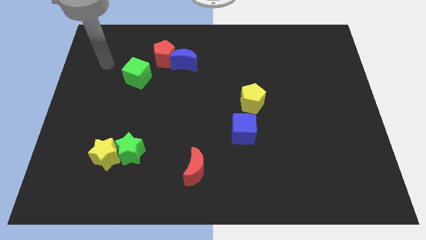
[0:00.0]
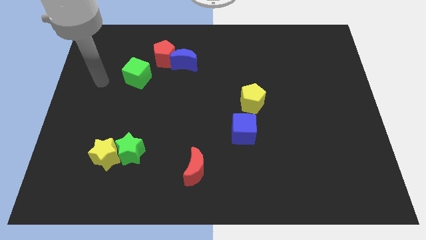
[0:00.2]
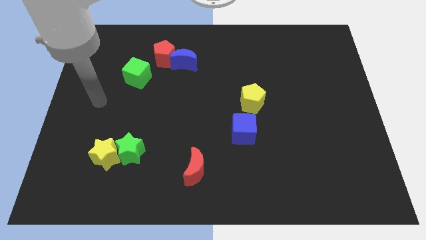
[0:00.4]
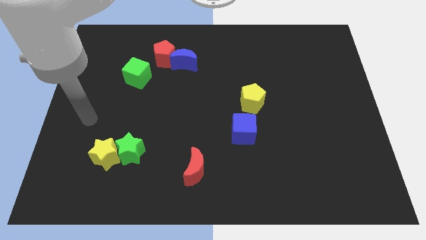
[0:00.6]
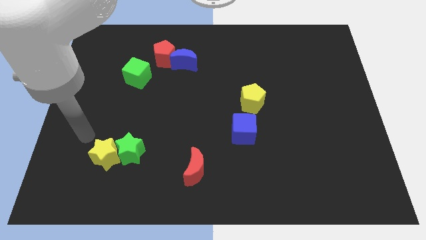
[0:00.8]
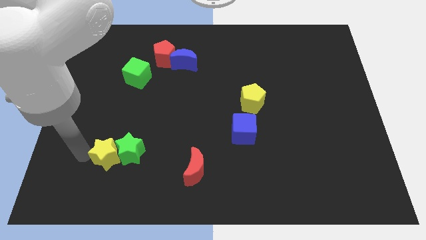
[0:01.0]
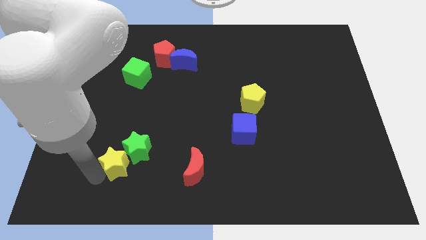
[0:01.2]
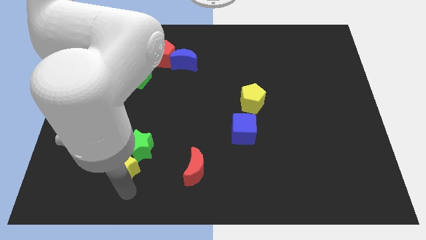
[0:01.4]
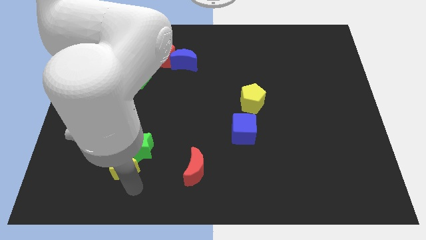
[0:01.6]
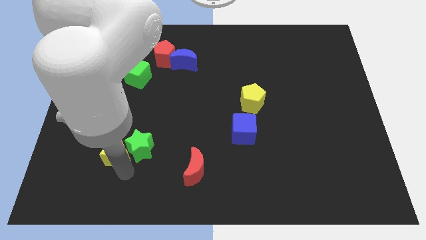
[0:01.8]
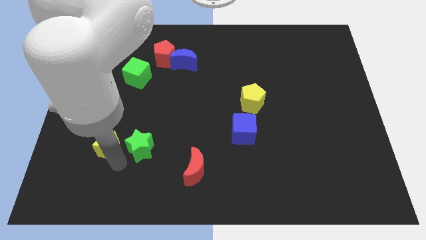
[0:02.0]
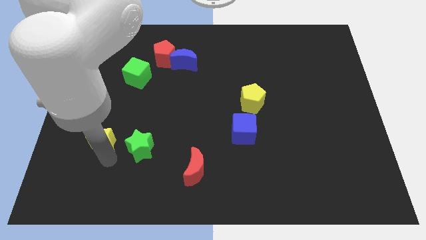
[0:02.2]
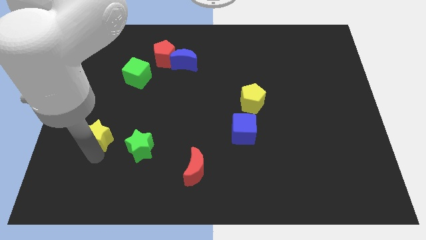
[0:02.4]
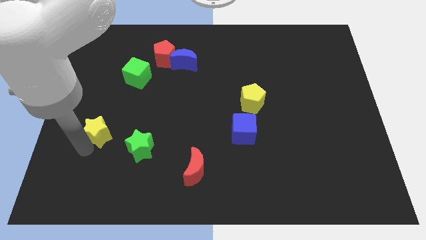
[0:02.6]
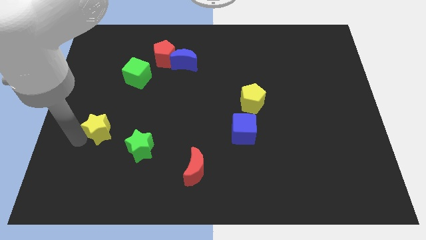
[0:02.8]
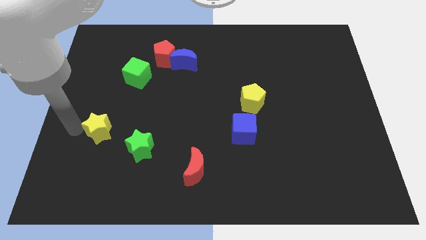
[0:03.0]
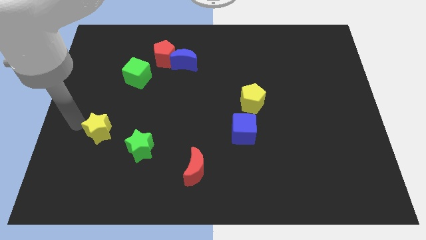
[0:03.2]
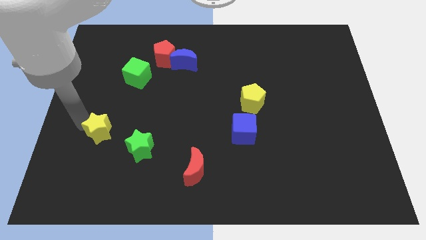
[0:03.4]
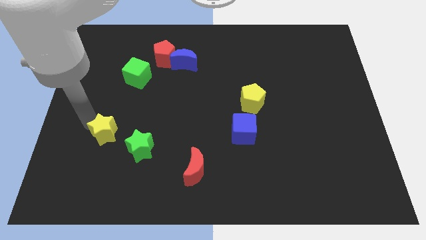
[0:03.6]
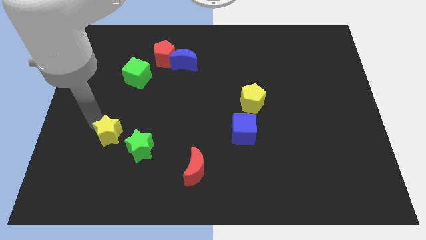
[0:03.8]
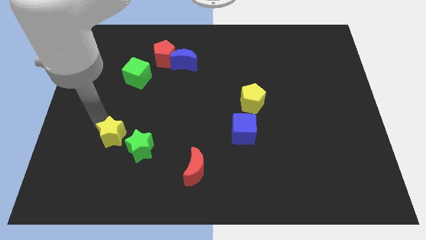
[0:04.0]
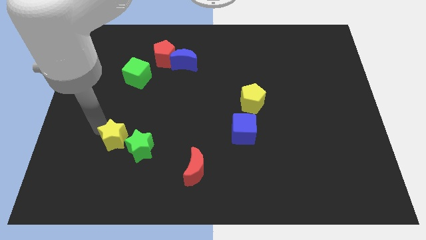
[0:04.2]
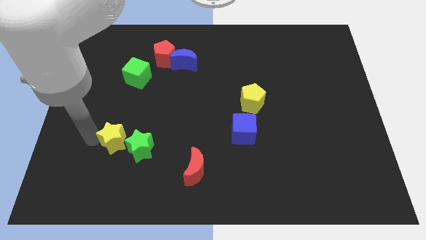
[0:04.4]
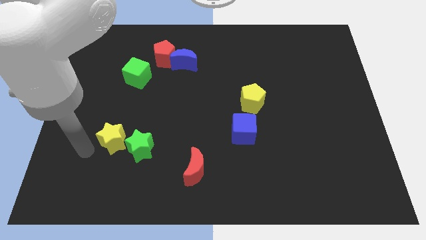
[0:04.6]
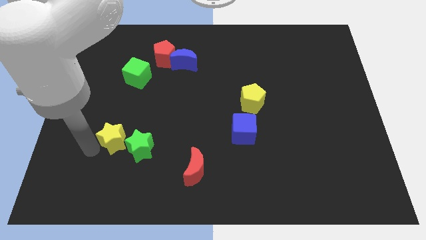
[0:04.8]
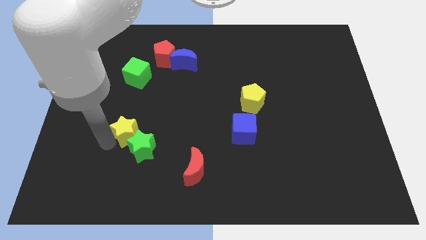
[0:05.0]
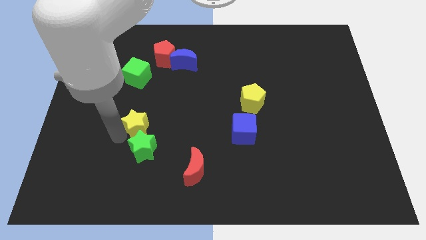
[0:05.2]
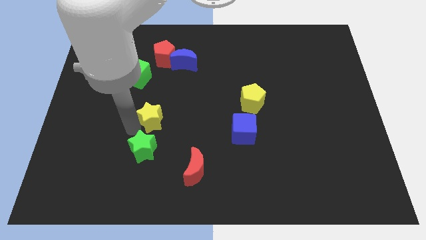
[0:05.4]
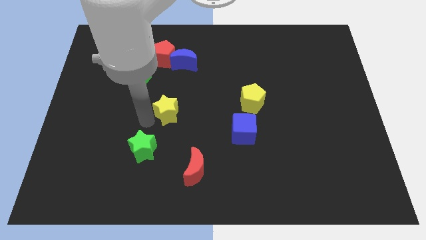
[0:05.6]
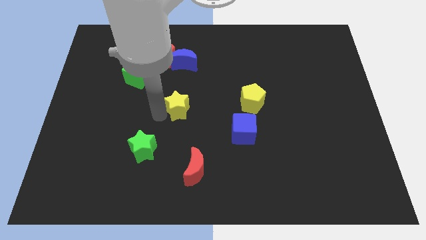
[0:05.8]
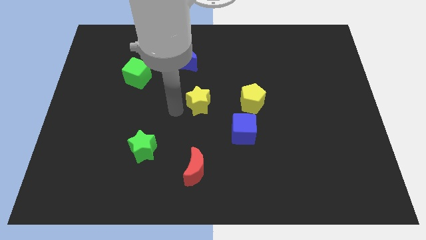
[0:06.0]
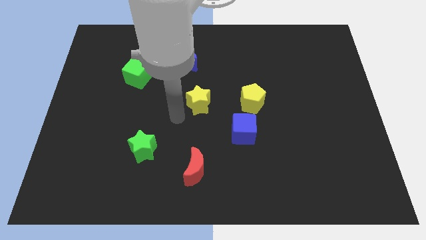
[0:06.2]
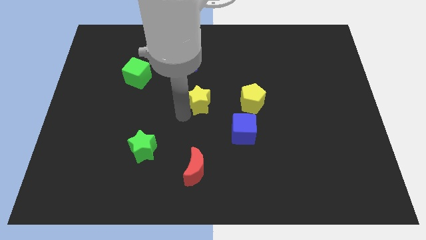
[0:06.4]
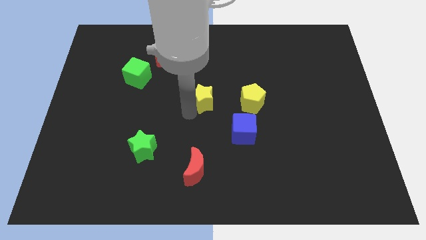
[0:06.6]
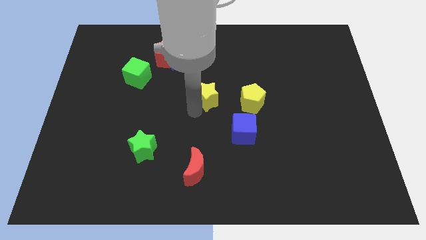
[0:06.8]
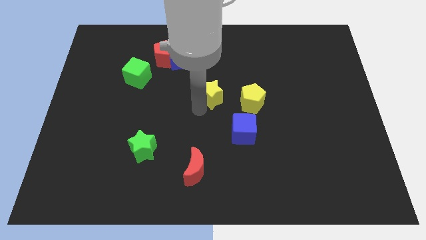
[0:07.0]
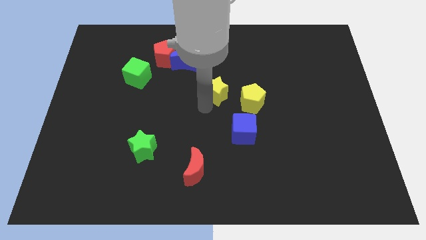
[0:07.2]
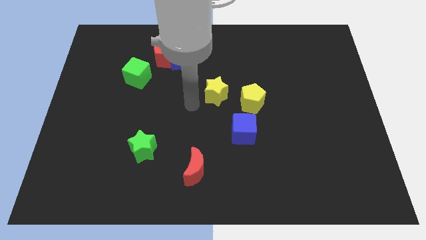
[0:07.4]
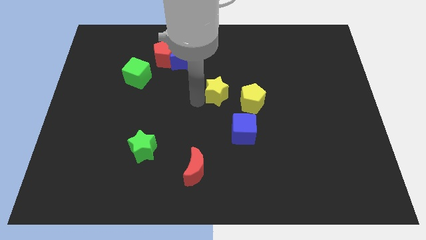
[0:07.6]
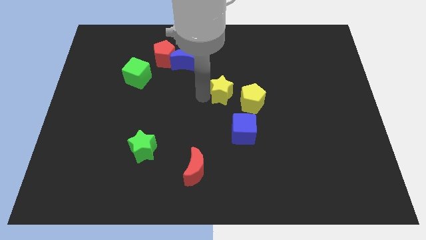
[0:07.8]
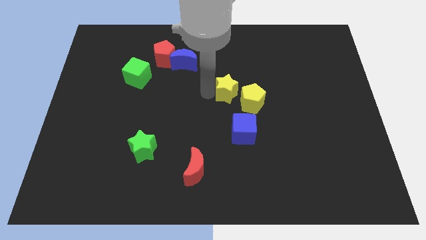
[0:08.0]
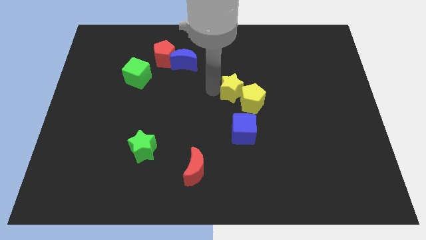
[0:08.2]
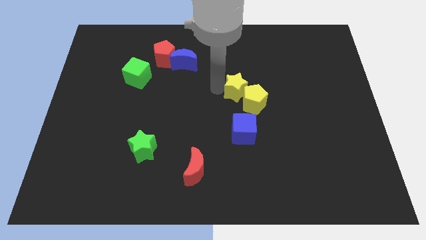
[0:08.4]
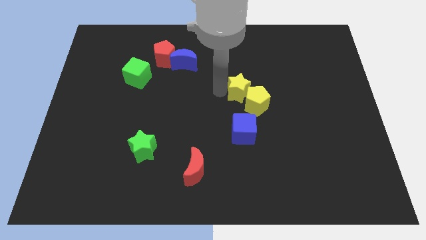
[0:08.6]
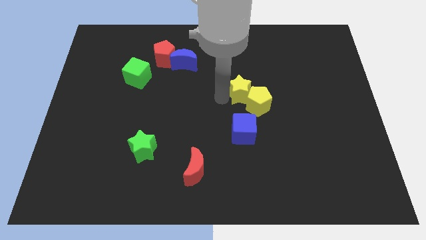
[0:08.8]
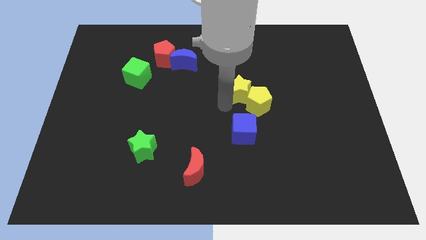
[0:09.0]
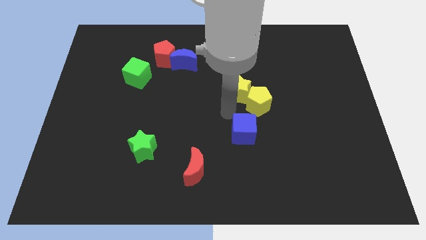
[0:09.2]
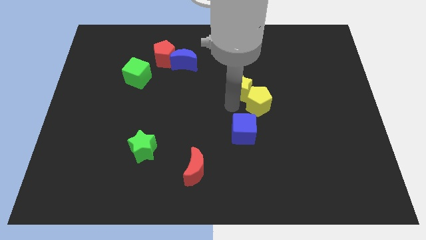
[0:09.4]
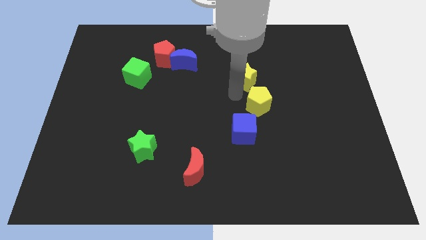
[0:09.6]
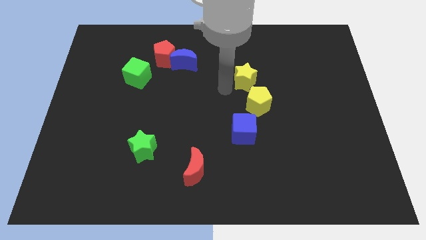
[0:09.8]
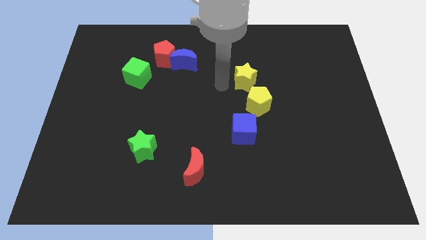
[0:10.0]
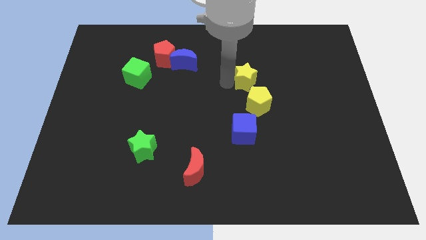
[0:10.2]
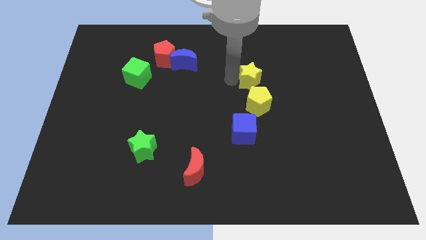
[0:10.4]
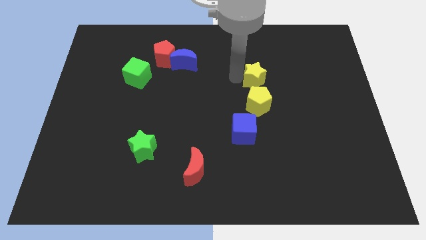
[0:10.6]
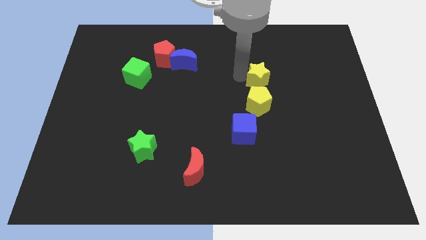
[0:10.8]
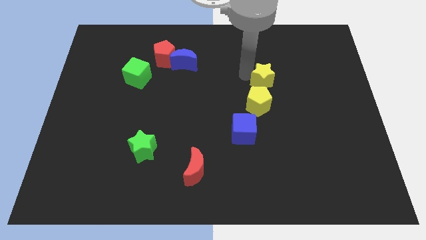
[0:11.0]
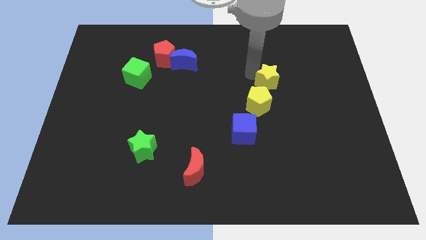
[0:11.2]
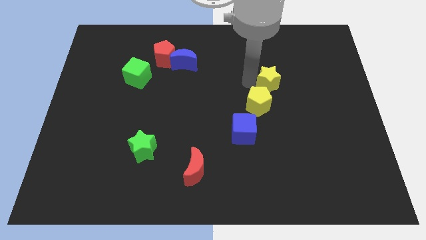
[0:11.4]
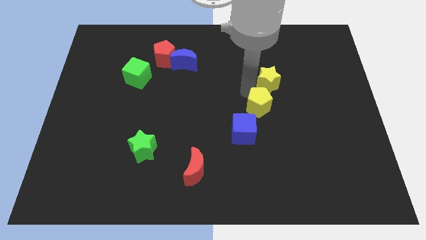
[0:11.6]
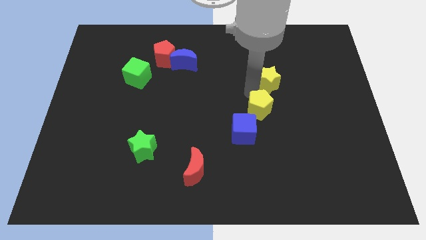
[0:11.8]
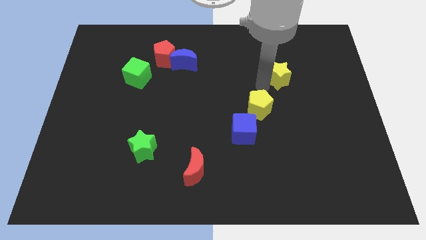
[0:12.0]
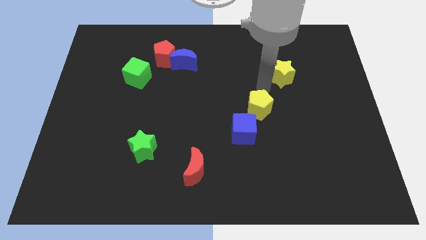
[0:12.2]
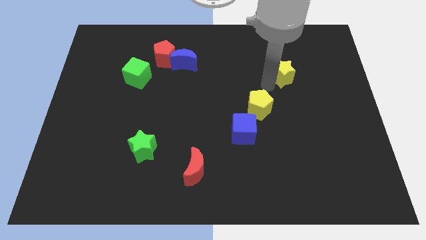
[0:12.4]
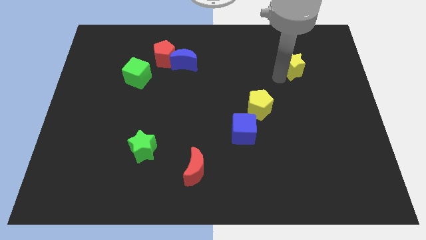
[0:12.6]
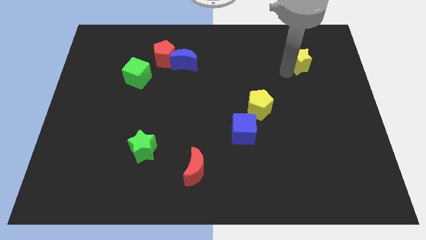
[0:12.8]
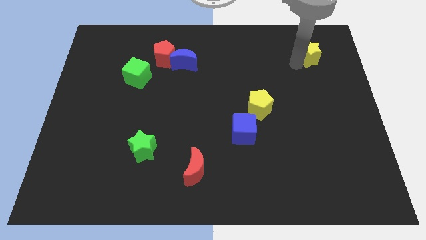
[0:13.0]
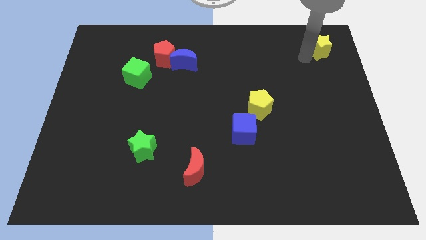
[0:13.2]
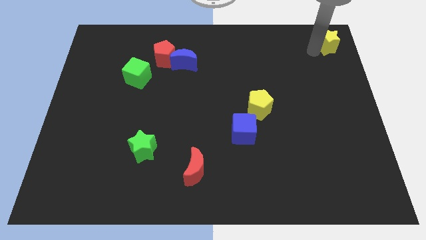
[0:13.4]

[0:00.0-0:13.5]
move the yellow star to the top right corner

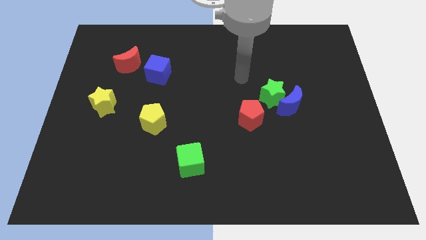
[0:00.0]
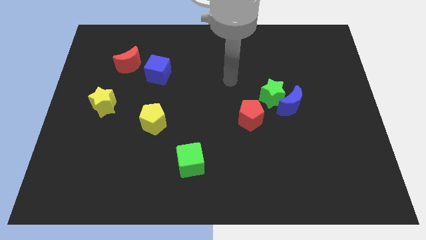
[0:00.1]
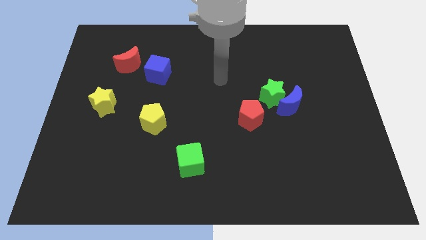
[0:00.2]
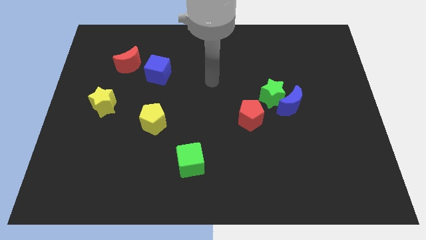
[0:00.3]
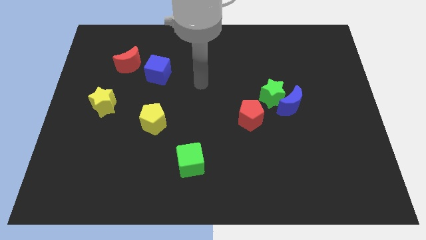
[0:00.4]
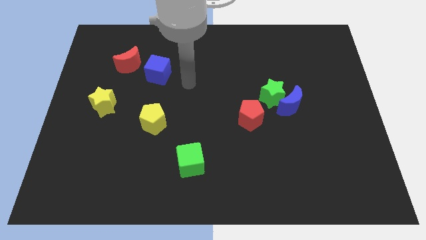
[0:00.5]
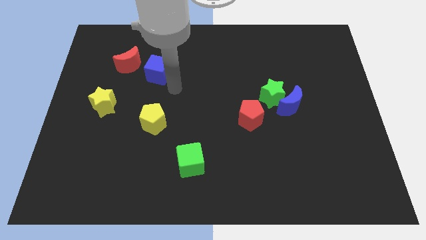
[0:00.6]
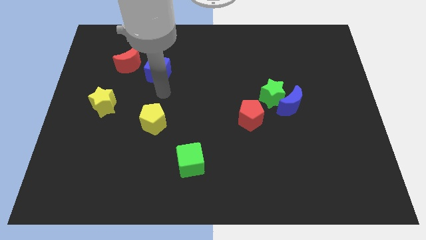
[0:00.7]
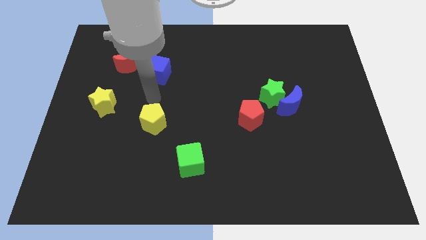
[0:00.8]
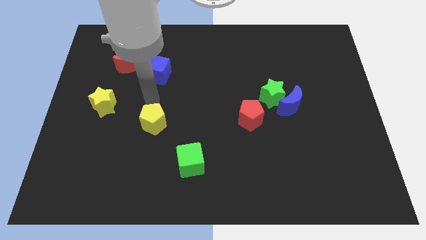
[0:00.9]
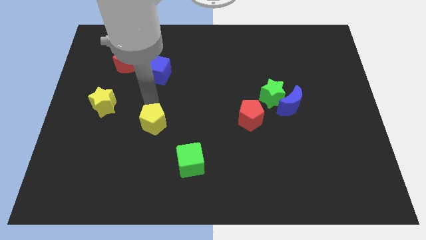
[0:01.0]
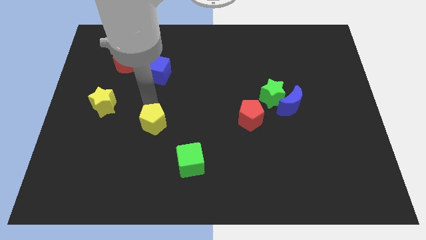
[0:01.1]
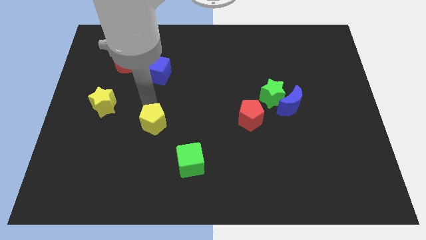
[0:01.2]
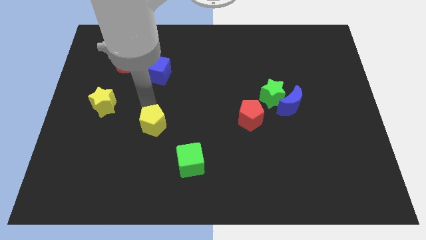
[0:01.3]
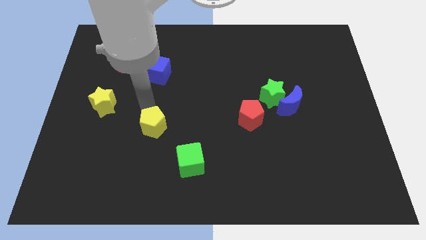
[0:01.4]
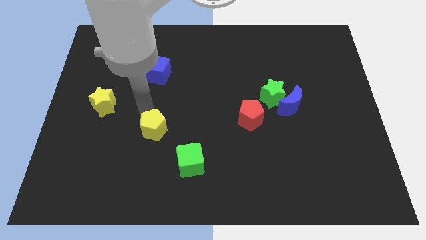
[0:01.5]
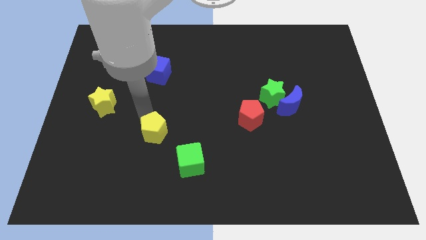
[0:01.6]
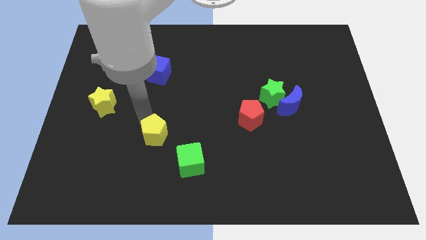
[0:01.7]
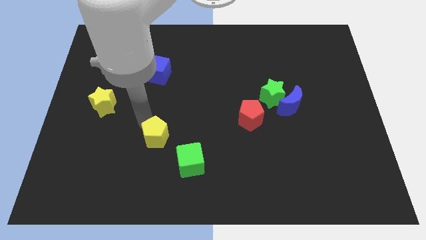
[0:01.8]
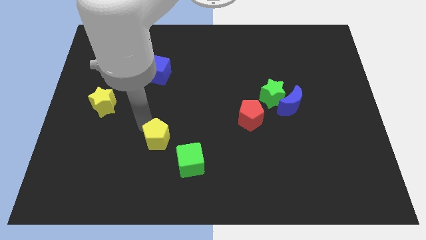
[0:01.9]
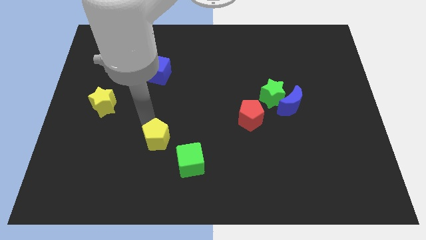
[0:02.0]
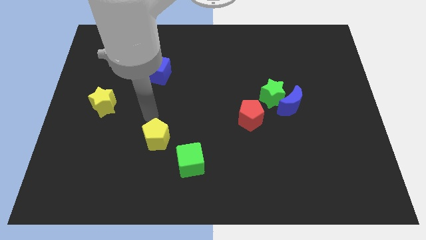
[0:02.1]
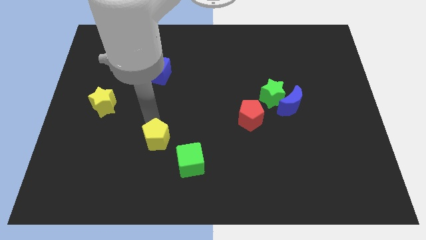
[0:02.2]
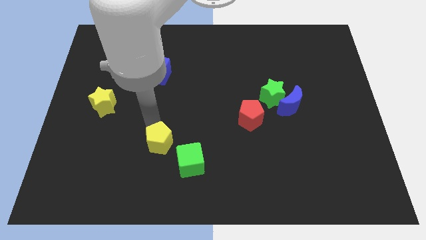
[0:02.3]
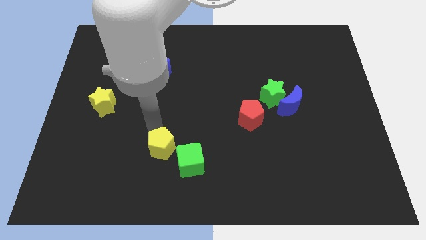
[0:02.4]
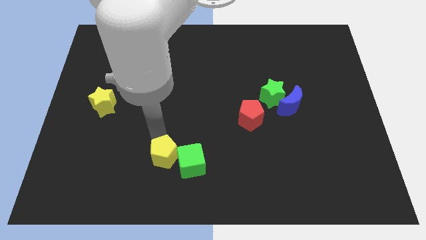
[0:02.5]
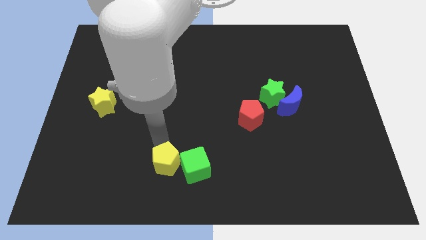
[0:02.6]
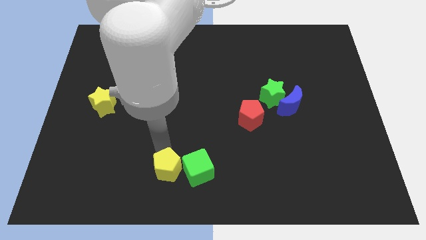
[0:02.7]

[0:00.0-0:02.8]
move the yellow pentagon to the bottom
